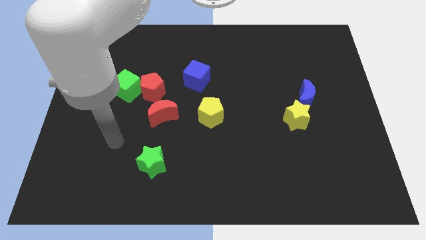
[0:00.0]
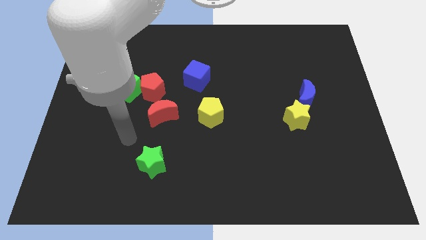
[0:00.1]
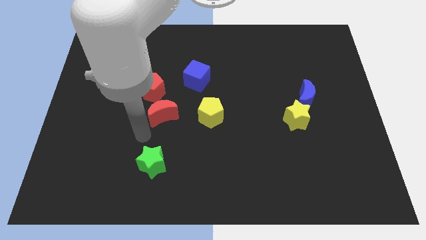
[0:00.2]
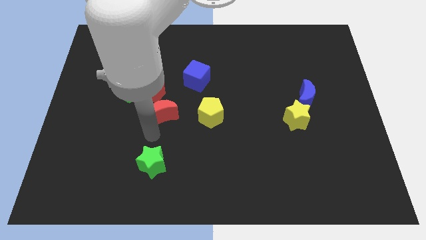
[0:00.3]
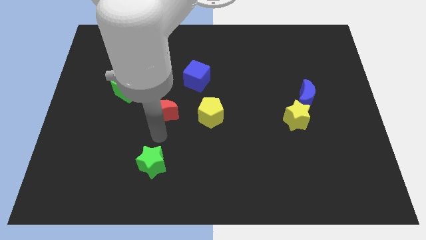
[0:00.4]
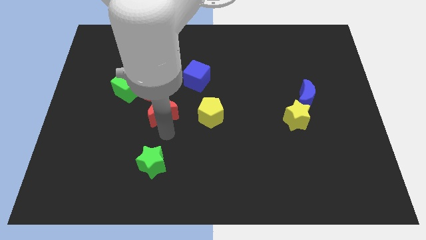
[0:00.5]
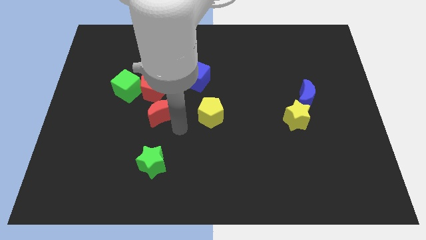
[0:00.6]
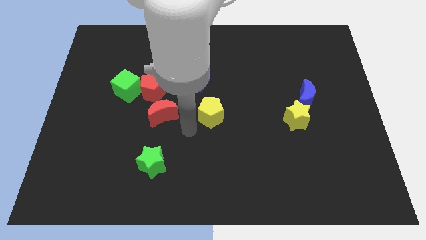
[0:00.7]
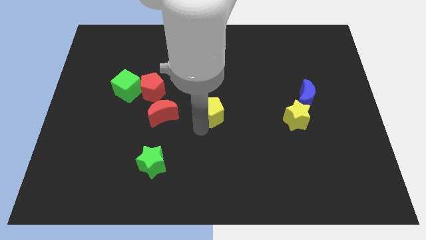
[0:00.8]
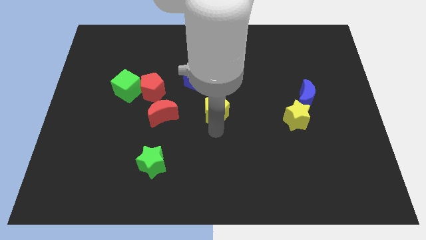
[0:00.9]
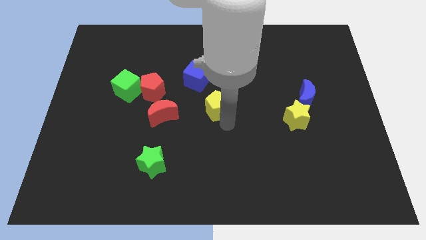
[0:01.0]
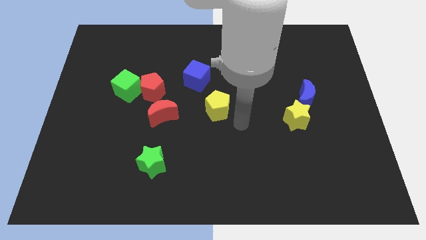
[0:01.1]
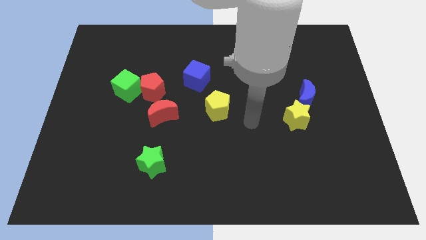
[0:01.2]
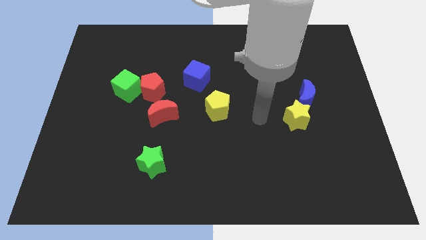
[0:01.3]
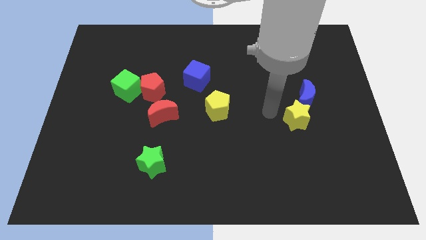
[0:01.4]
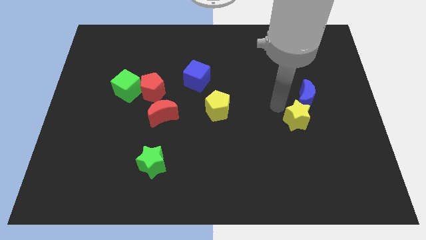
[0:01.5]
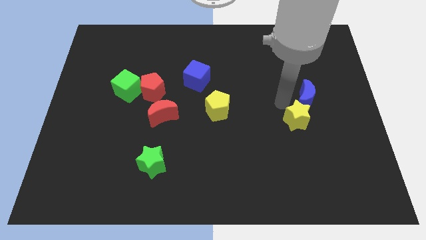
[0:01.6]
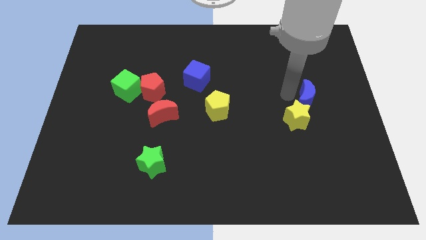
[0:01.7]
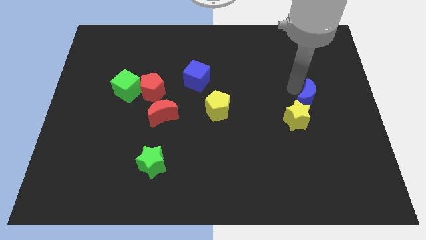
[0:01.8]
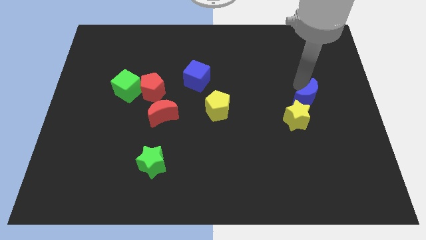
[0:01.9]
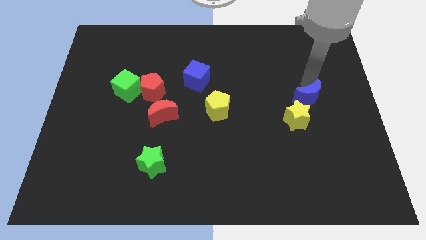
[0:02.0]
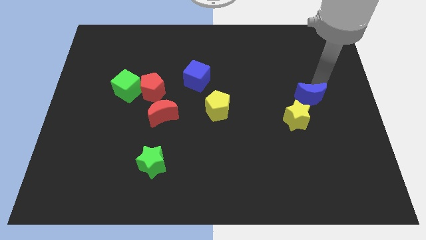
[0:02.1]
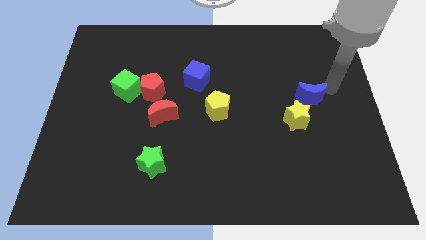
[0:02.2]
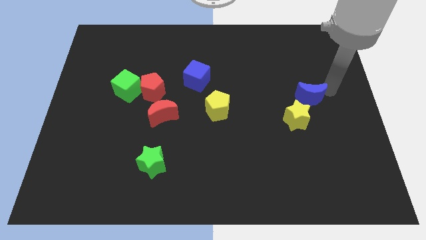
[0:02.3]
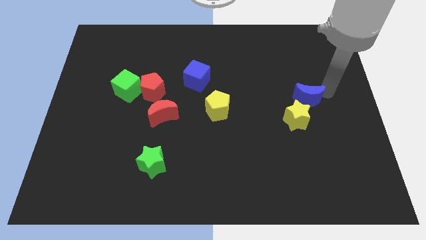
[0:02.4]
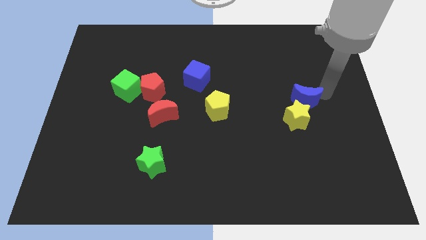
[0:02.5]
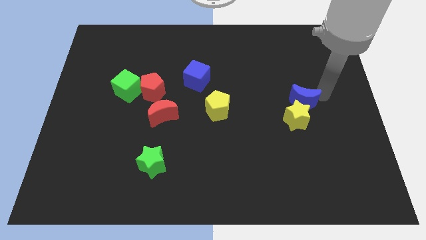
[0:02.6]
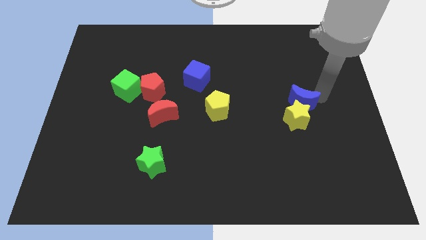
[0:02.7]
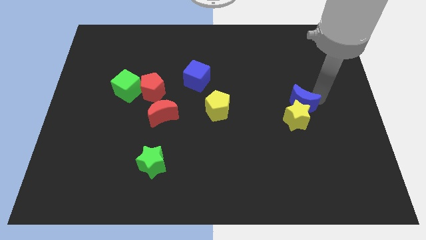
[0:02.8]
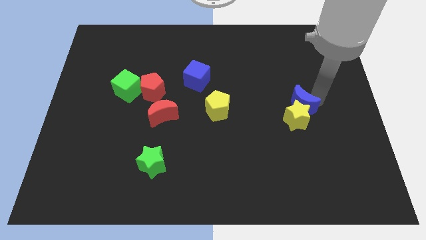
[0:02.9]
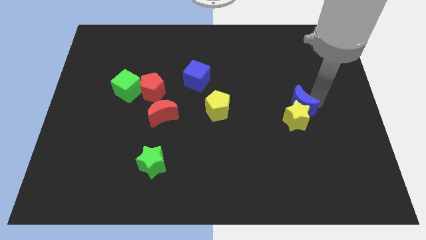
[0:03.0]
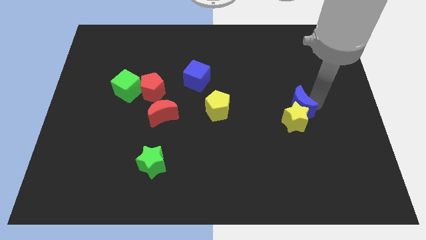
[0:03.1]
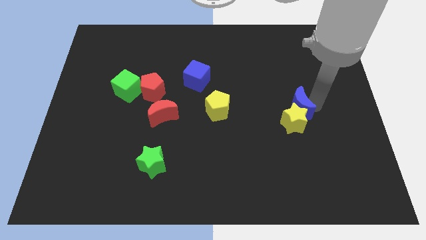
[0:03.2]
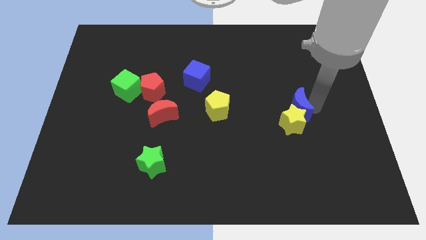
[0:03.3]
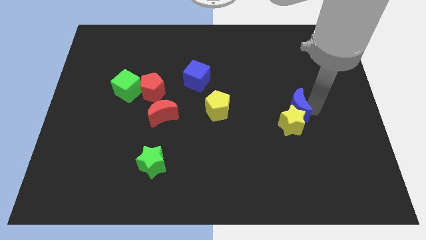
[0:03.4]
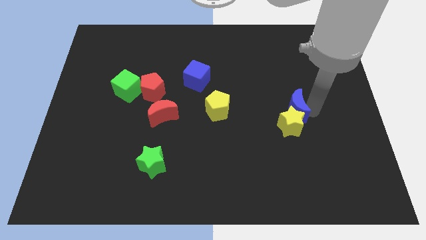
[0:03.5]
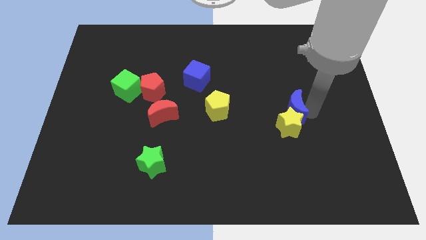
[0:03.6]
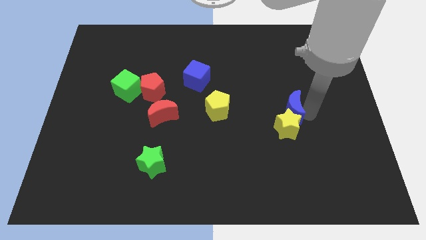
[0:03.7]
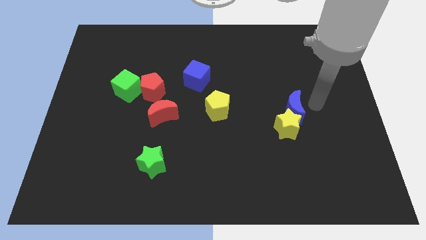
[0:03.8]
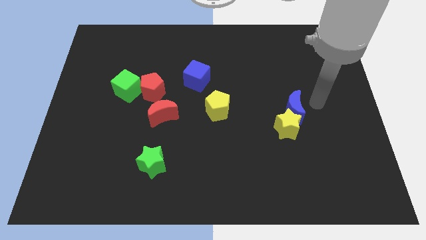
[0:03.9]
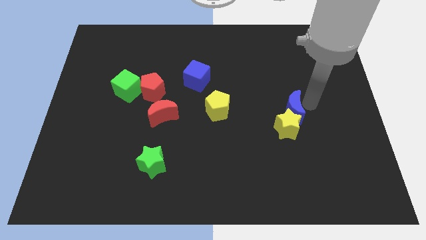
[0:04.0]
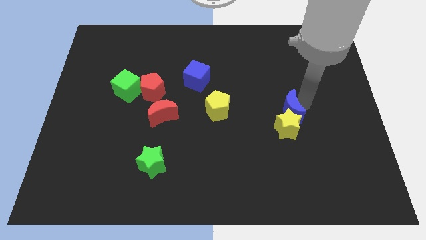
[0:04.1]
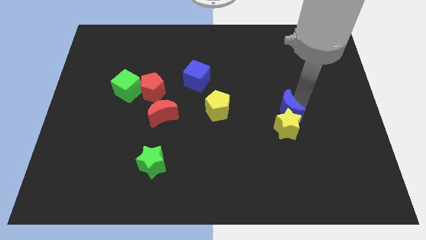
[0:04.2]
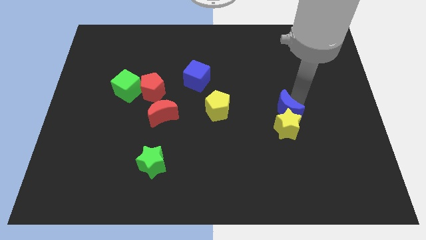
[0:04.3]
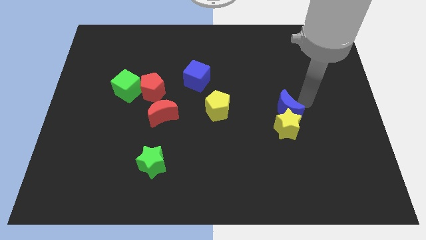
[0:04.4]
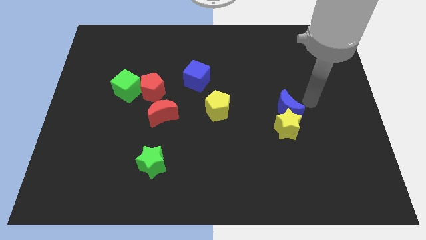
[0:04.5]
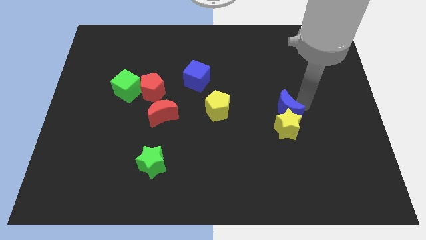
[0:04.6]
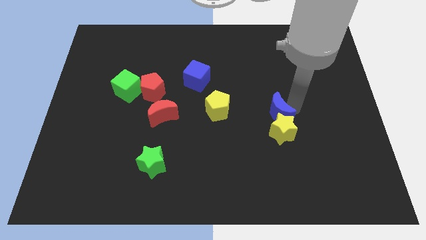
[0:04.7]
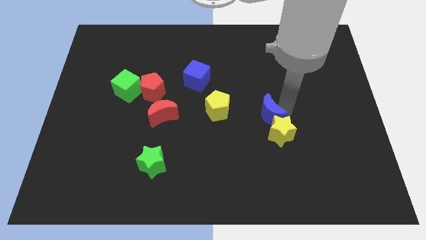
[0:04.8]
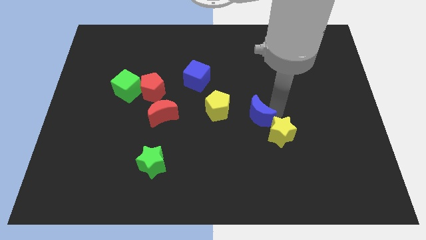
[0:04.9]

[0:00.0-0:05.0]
put the blue moon to the left of the yellow star

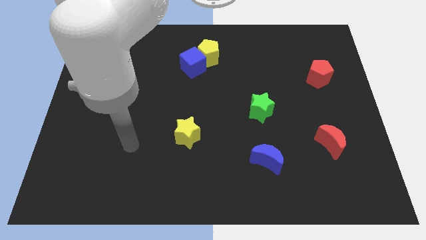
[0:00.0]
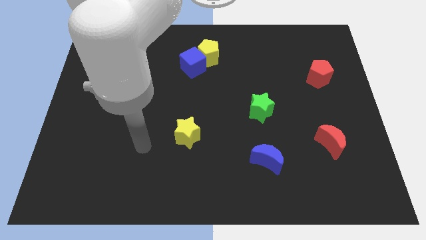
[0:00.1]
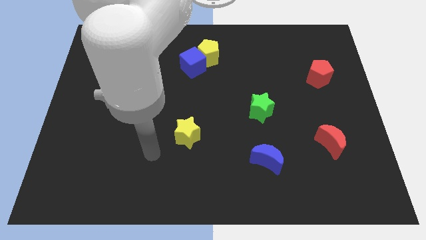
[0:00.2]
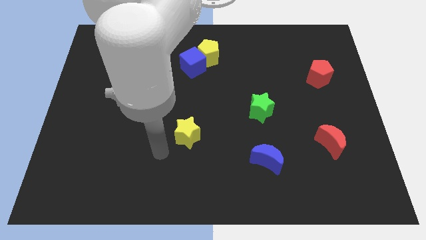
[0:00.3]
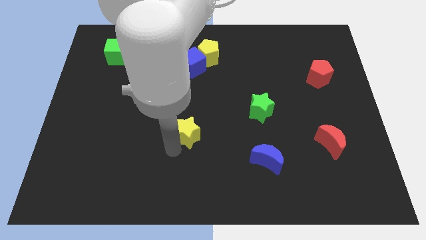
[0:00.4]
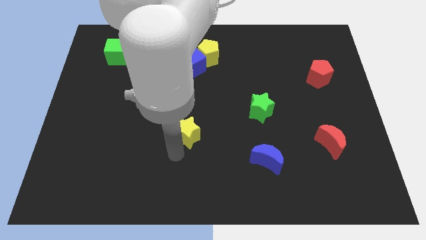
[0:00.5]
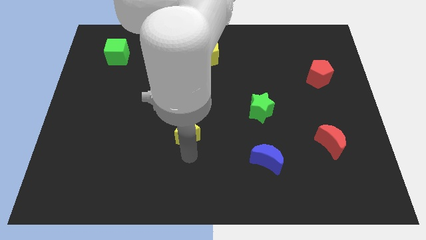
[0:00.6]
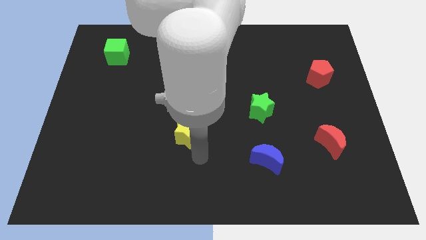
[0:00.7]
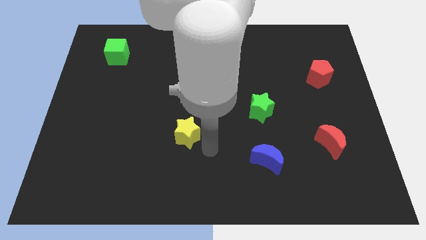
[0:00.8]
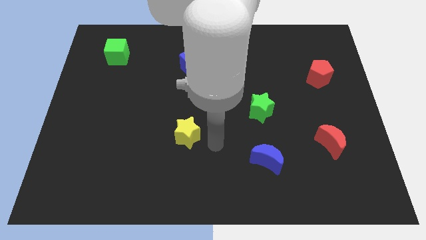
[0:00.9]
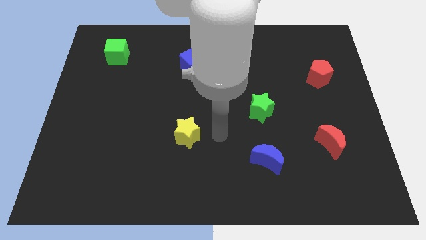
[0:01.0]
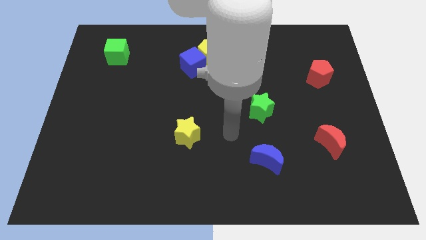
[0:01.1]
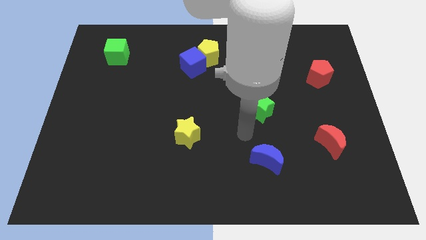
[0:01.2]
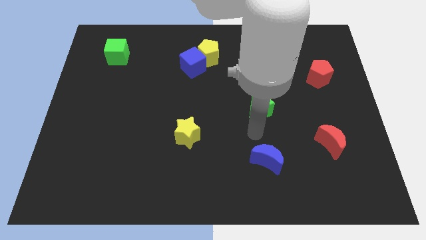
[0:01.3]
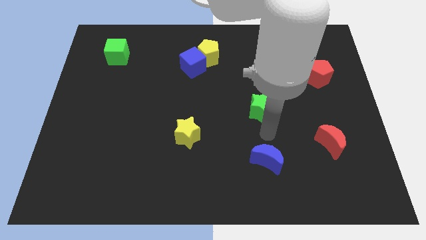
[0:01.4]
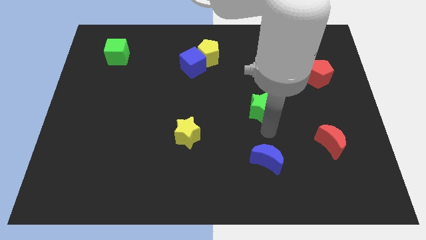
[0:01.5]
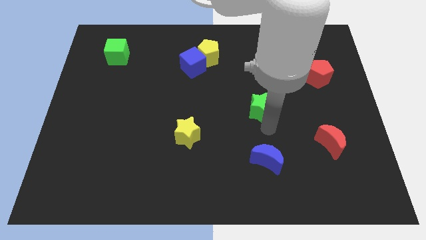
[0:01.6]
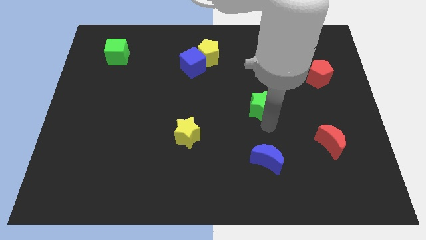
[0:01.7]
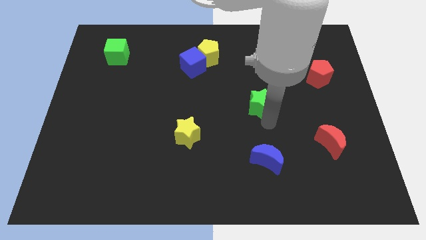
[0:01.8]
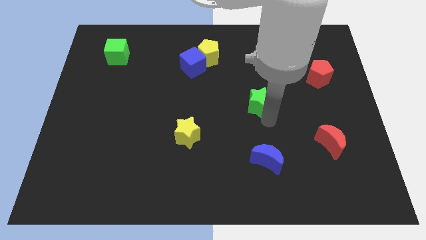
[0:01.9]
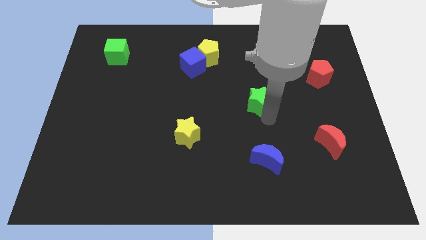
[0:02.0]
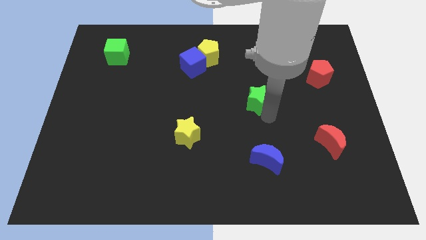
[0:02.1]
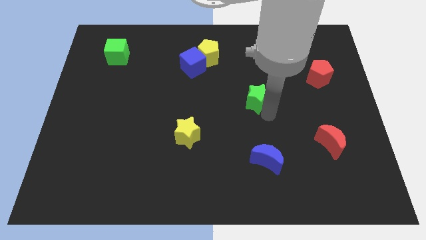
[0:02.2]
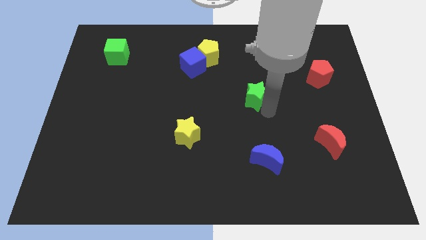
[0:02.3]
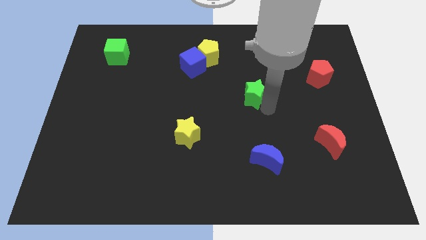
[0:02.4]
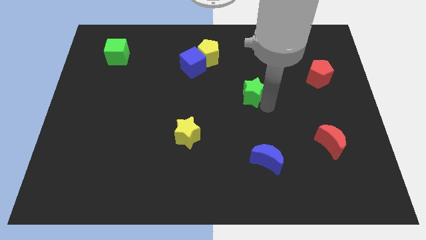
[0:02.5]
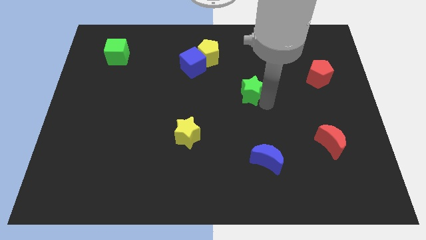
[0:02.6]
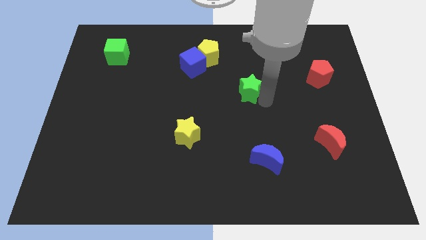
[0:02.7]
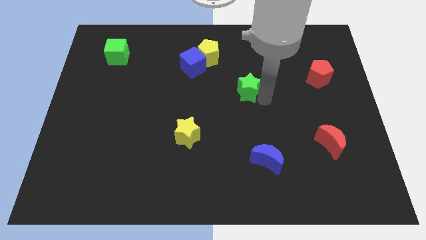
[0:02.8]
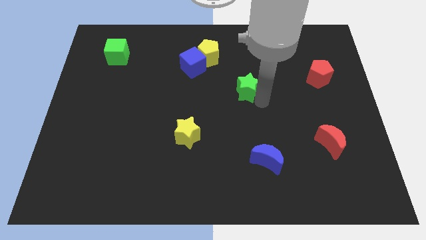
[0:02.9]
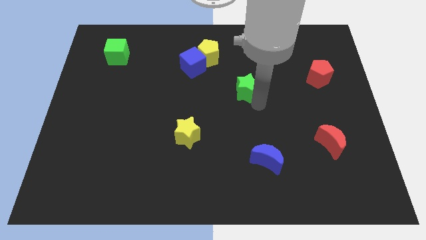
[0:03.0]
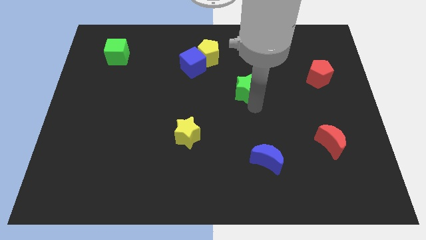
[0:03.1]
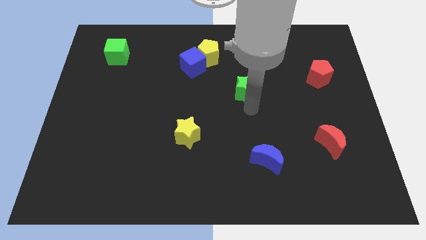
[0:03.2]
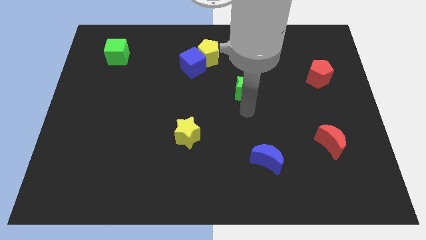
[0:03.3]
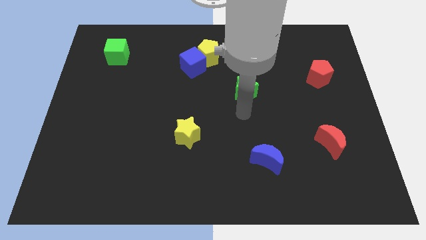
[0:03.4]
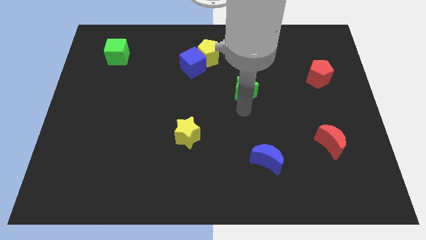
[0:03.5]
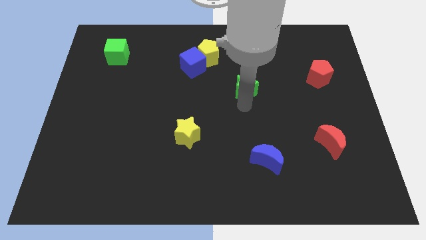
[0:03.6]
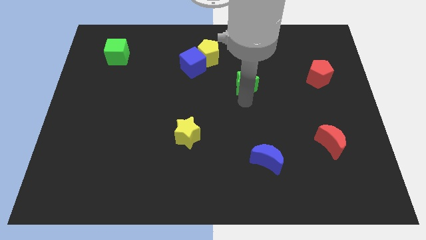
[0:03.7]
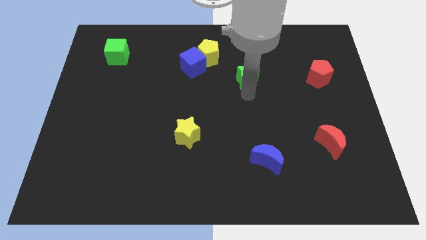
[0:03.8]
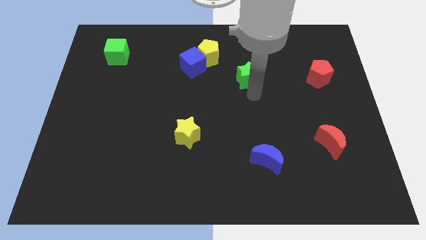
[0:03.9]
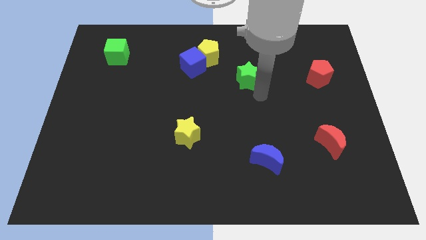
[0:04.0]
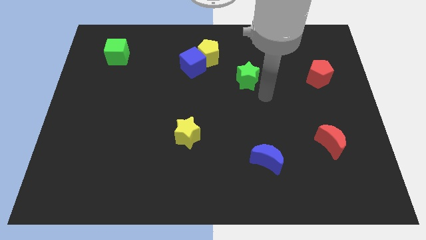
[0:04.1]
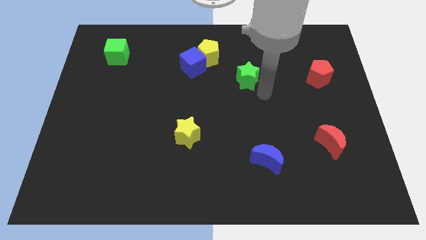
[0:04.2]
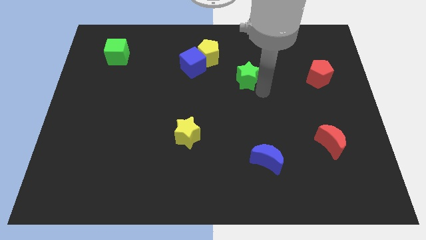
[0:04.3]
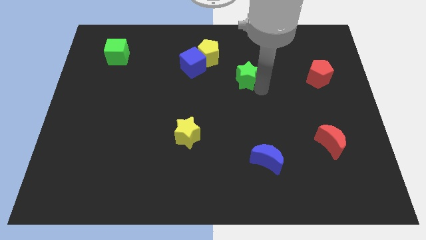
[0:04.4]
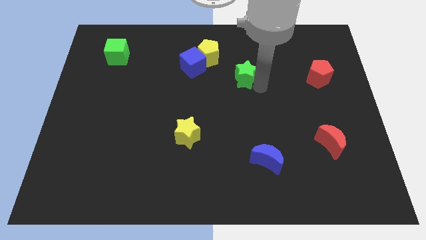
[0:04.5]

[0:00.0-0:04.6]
push the green star just right of the blue cube
